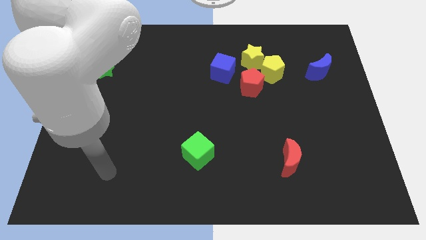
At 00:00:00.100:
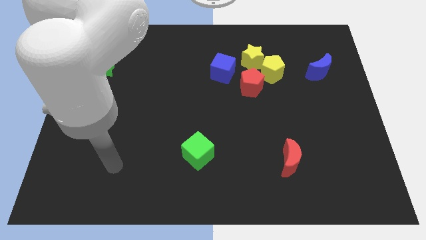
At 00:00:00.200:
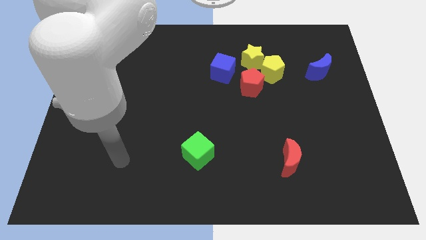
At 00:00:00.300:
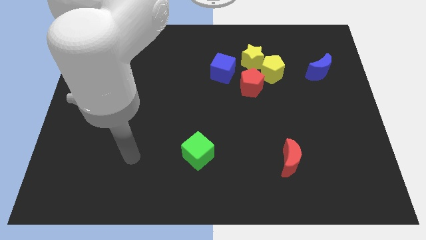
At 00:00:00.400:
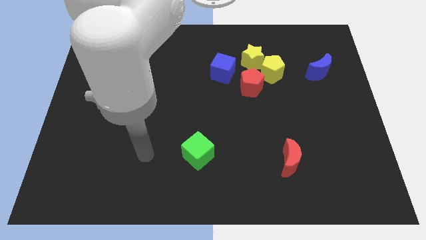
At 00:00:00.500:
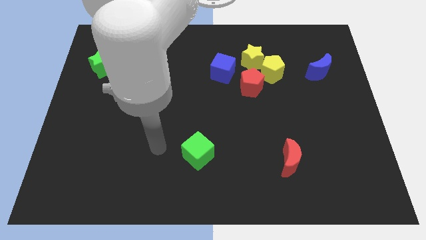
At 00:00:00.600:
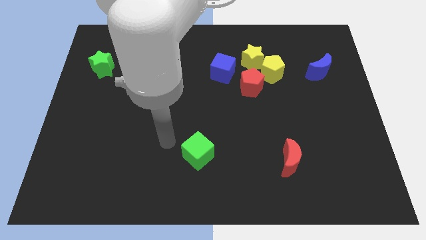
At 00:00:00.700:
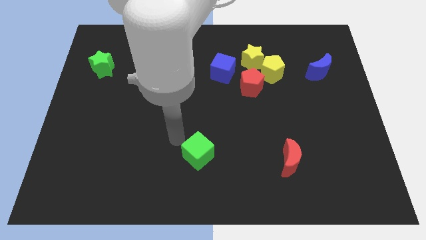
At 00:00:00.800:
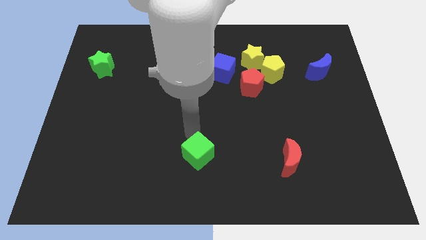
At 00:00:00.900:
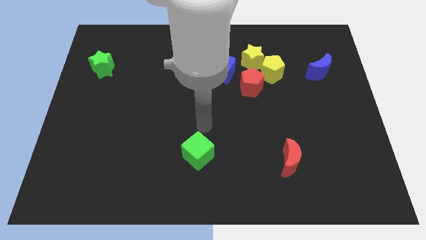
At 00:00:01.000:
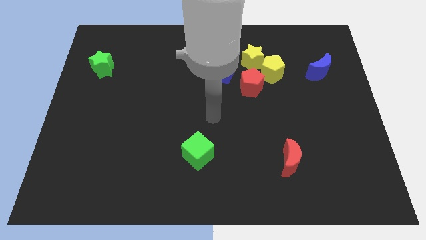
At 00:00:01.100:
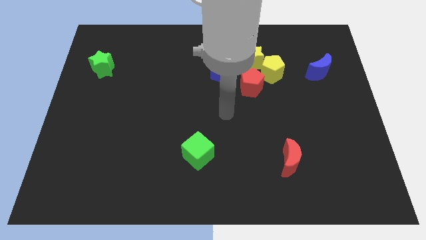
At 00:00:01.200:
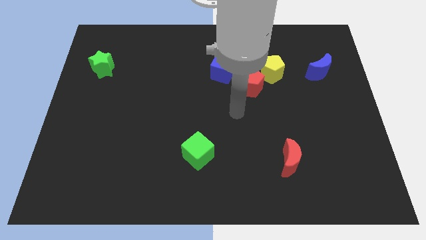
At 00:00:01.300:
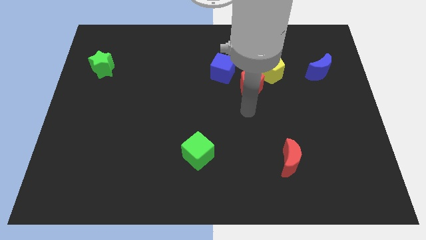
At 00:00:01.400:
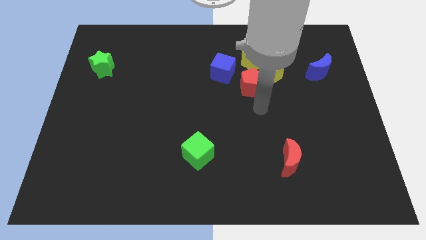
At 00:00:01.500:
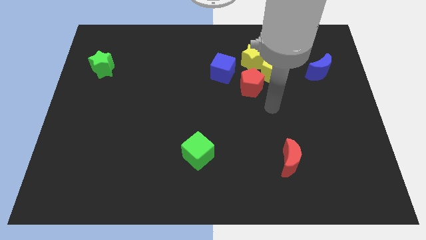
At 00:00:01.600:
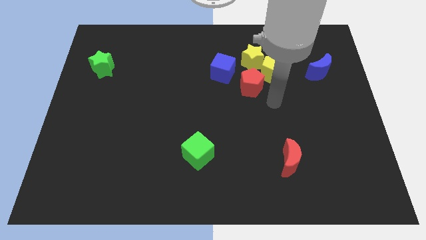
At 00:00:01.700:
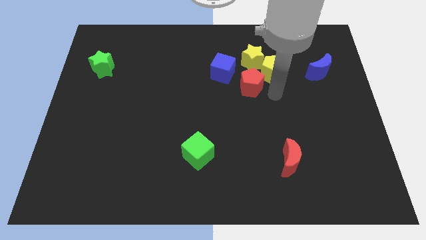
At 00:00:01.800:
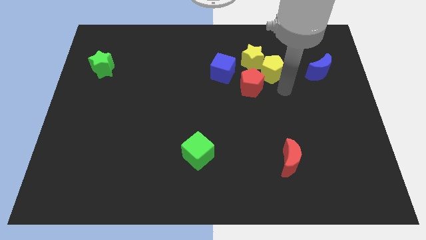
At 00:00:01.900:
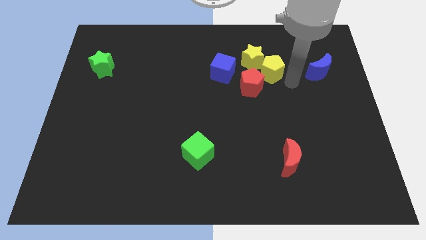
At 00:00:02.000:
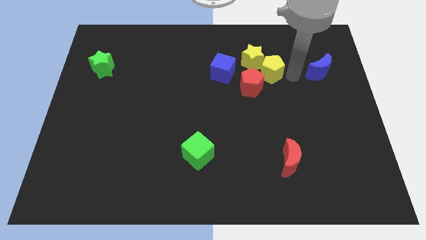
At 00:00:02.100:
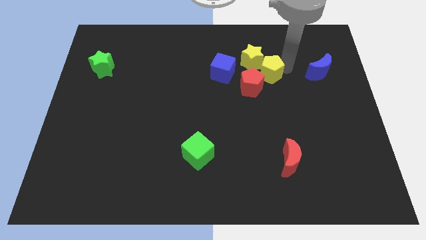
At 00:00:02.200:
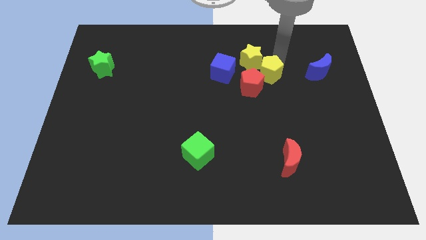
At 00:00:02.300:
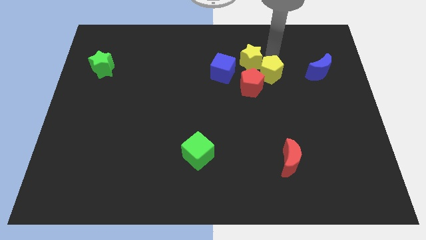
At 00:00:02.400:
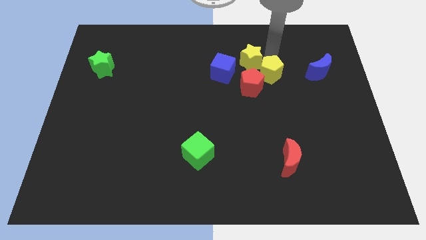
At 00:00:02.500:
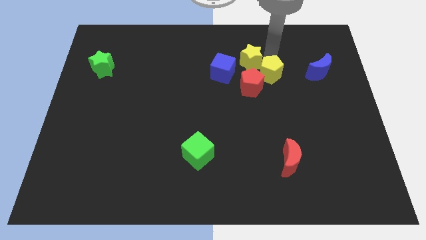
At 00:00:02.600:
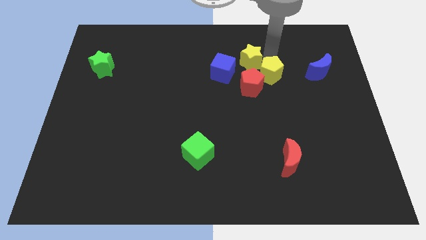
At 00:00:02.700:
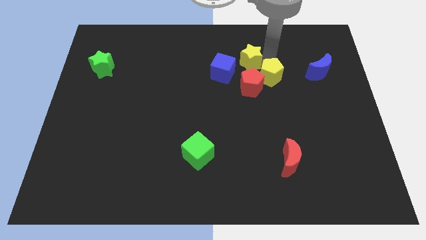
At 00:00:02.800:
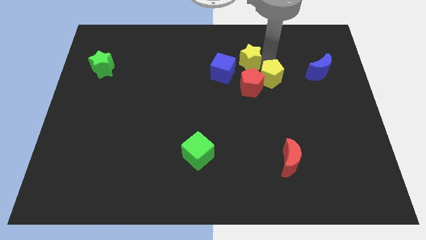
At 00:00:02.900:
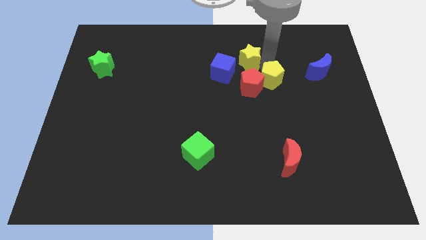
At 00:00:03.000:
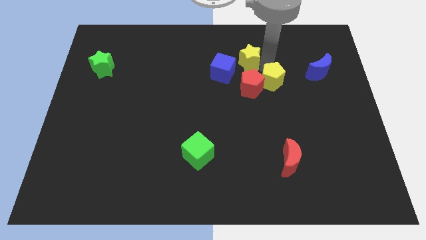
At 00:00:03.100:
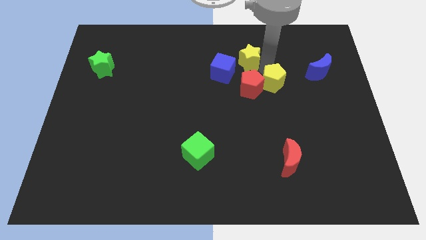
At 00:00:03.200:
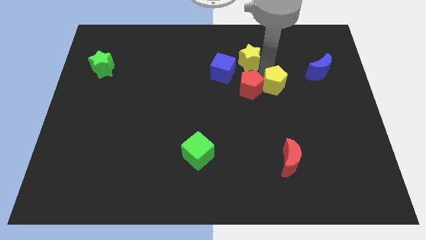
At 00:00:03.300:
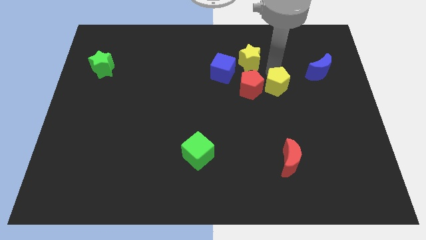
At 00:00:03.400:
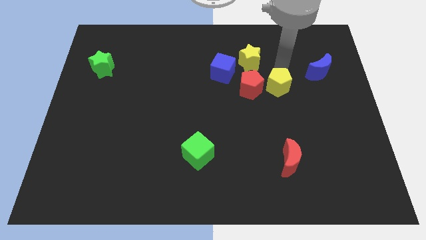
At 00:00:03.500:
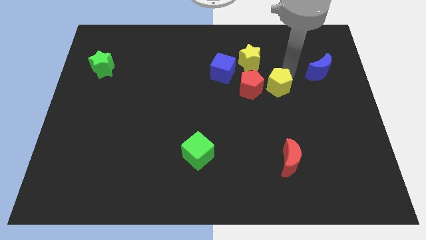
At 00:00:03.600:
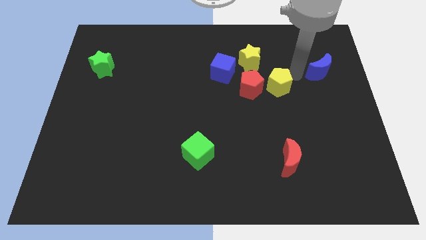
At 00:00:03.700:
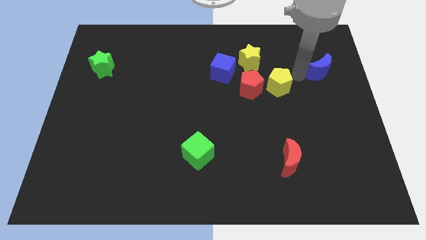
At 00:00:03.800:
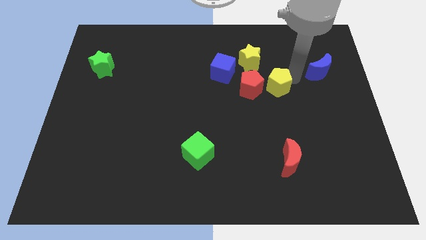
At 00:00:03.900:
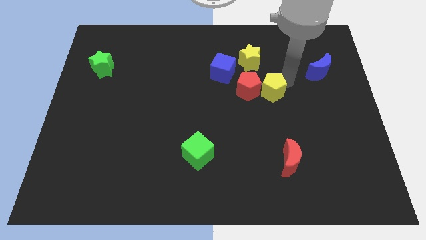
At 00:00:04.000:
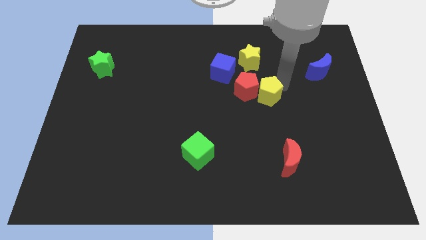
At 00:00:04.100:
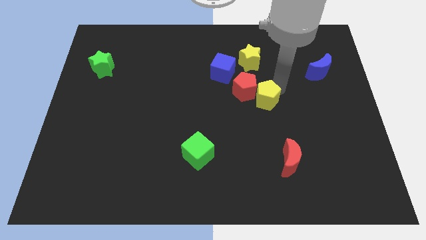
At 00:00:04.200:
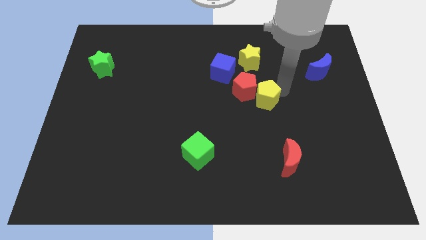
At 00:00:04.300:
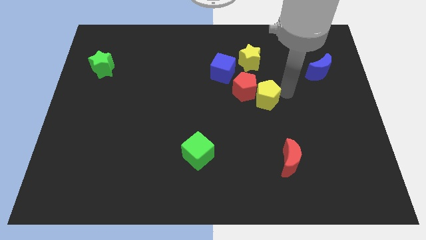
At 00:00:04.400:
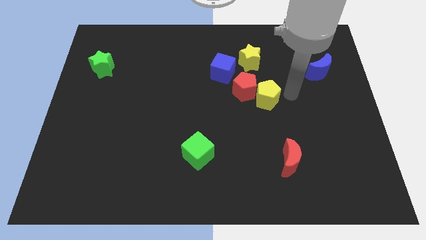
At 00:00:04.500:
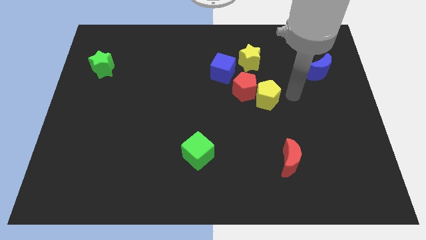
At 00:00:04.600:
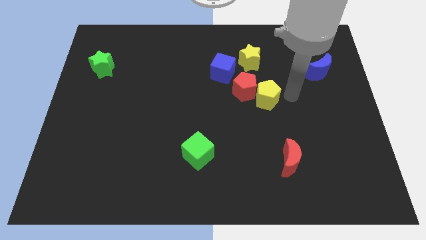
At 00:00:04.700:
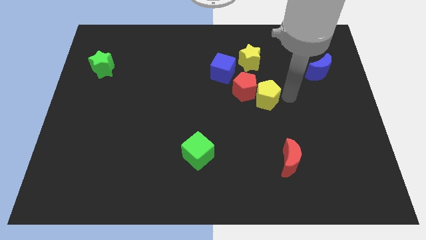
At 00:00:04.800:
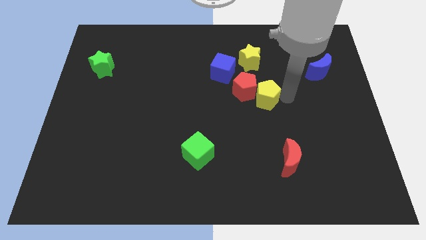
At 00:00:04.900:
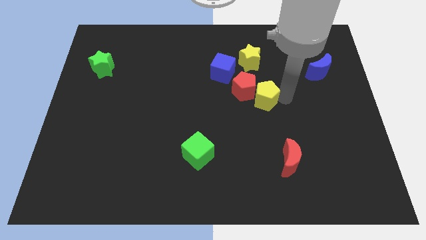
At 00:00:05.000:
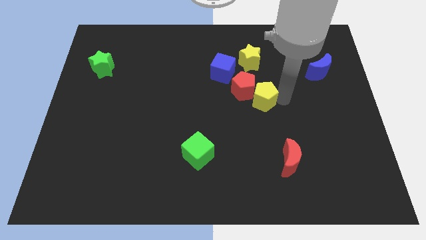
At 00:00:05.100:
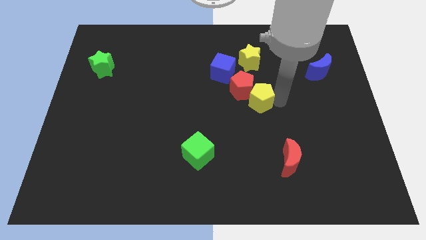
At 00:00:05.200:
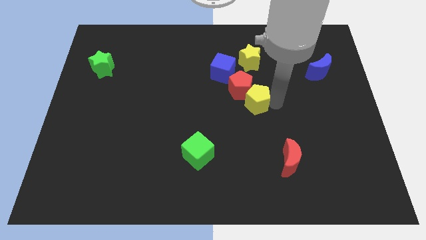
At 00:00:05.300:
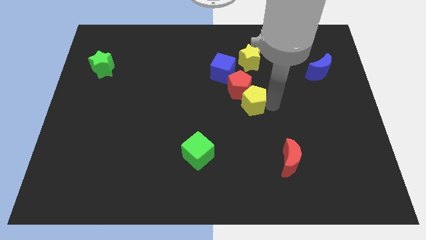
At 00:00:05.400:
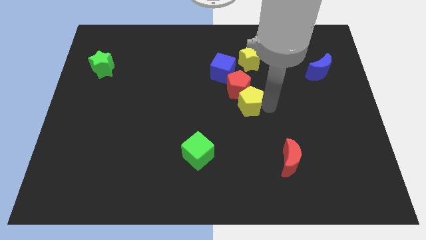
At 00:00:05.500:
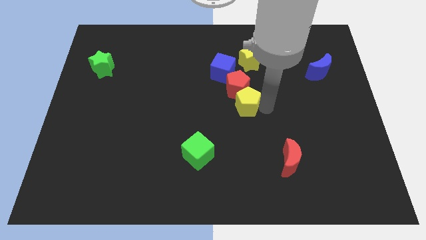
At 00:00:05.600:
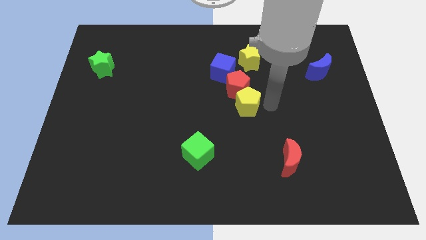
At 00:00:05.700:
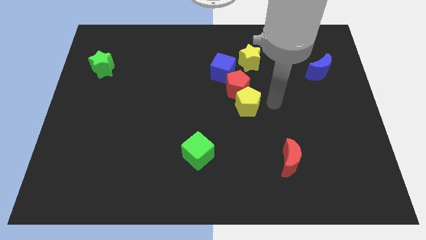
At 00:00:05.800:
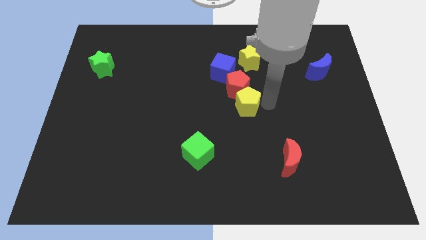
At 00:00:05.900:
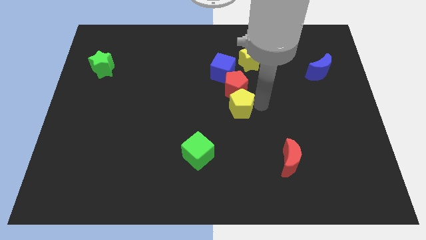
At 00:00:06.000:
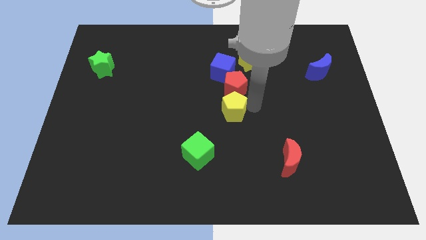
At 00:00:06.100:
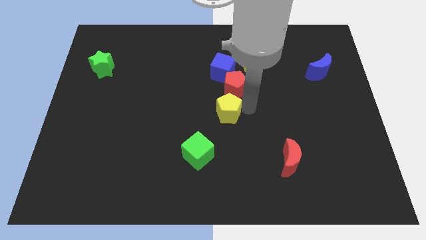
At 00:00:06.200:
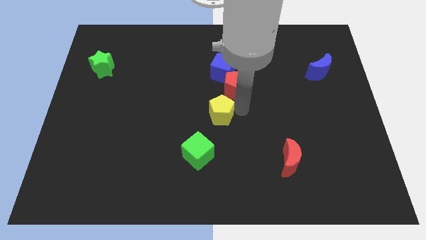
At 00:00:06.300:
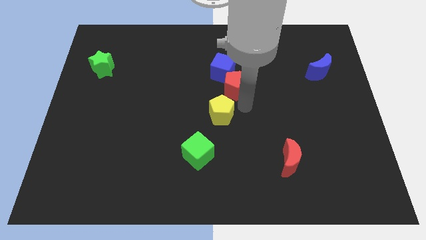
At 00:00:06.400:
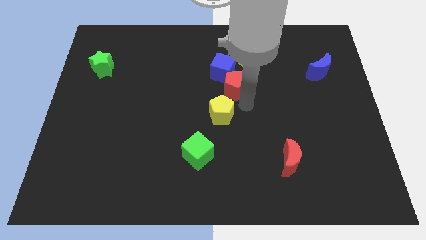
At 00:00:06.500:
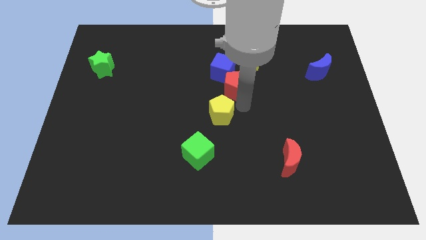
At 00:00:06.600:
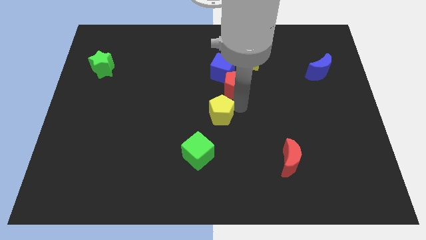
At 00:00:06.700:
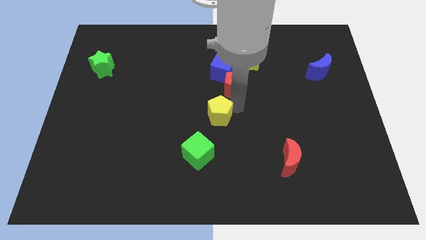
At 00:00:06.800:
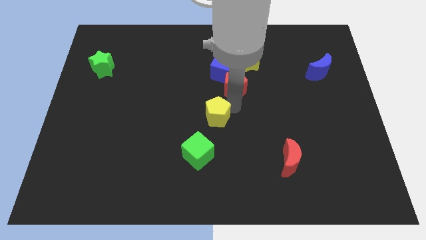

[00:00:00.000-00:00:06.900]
move the yellow pentagon downwards and to the left diagonally

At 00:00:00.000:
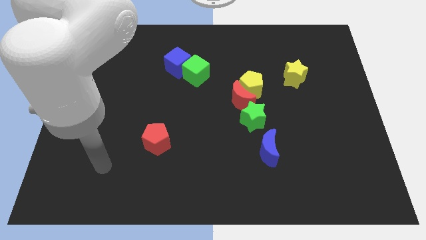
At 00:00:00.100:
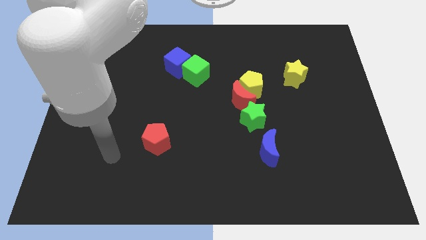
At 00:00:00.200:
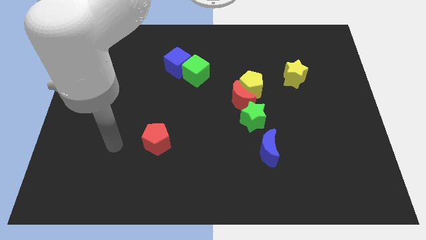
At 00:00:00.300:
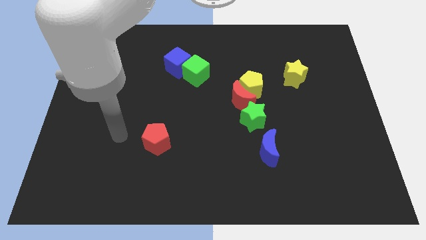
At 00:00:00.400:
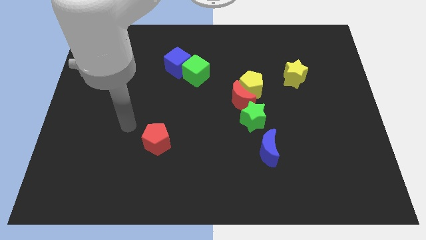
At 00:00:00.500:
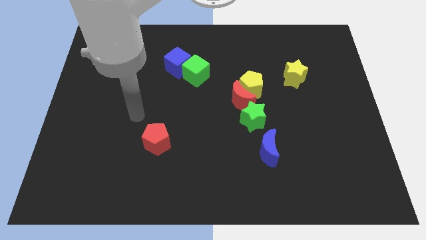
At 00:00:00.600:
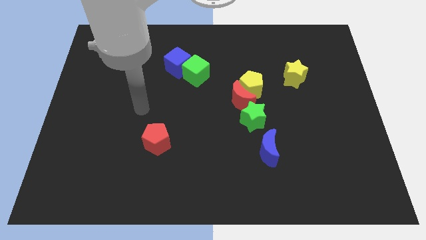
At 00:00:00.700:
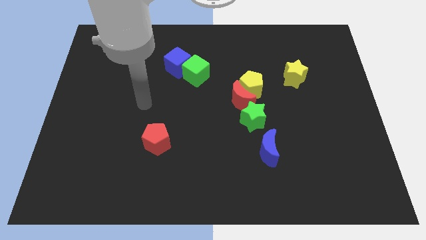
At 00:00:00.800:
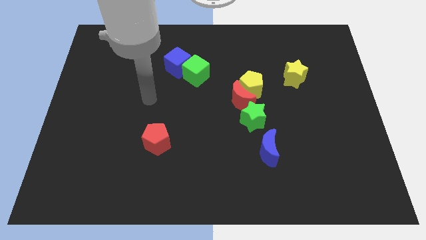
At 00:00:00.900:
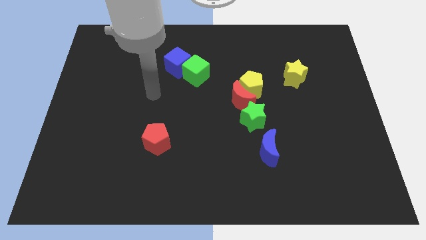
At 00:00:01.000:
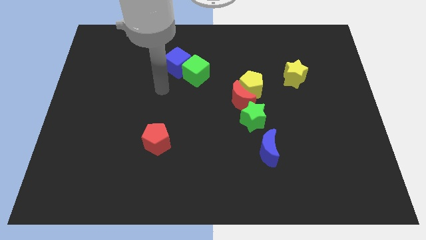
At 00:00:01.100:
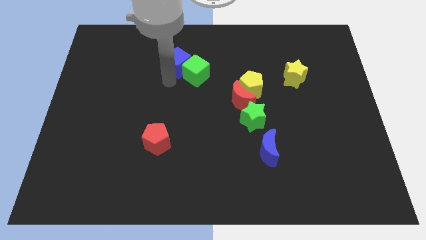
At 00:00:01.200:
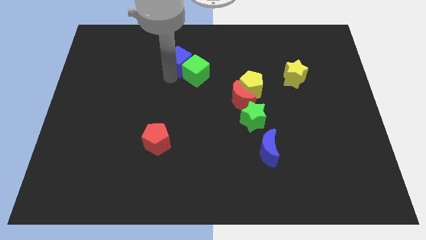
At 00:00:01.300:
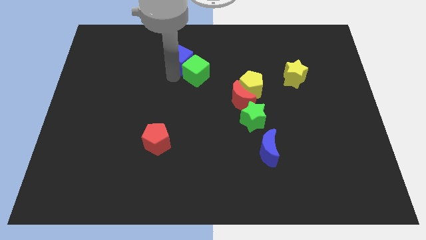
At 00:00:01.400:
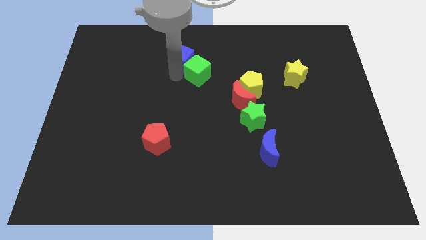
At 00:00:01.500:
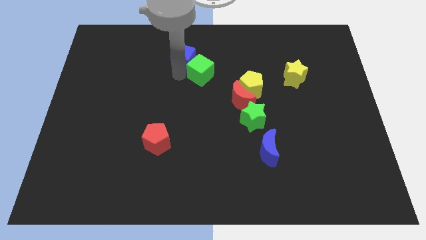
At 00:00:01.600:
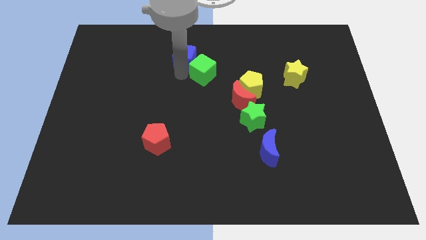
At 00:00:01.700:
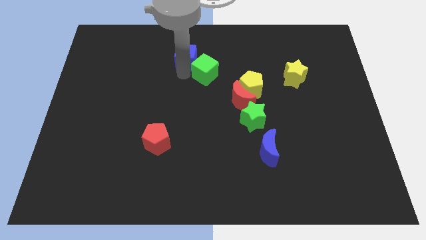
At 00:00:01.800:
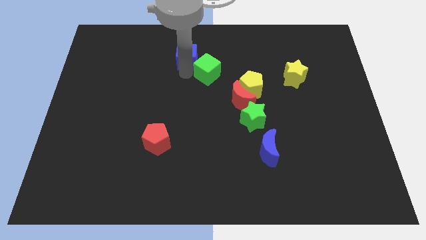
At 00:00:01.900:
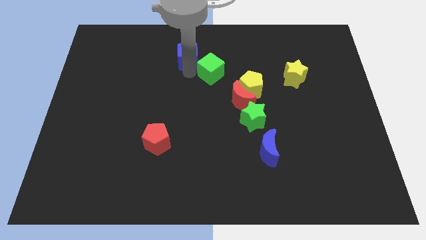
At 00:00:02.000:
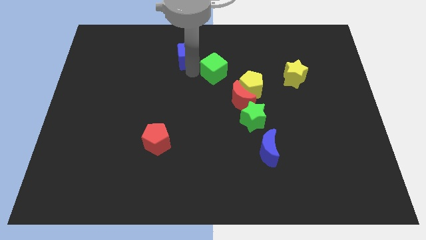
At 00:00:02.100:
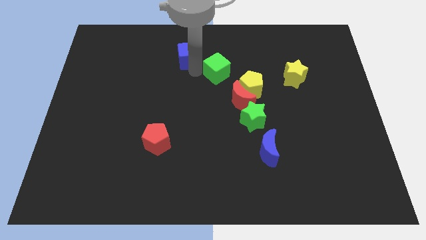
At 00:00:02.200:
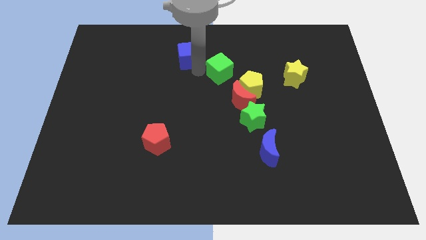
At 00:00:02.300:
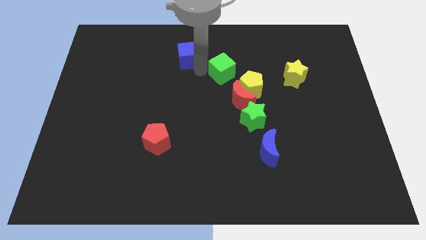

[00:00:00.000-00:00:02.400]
push the green cube somewhat right
